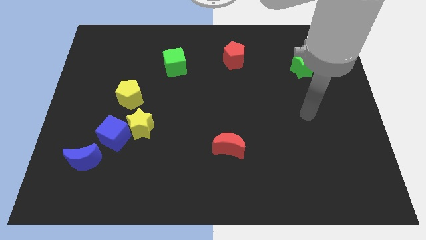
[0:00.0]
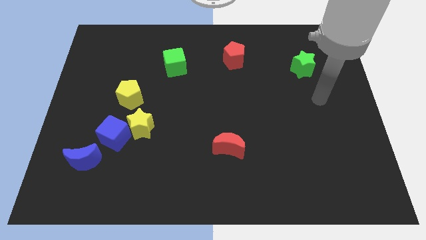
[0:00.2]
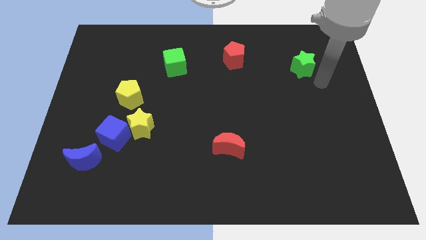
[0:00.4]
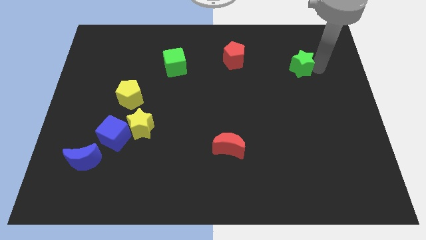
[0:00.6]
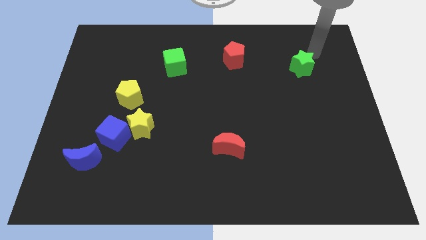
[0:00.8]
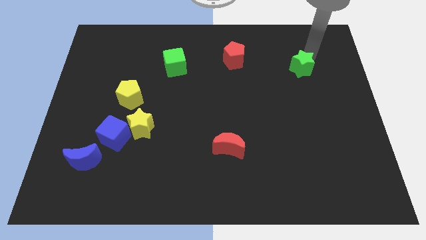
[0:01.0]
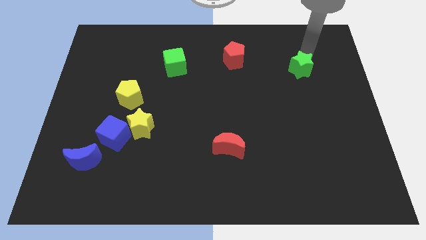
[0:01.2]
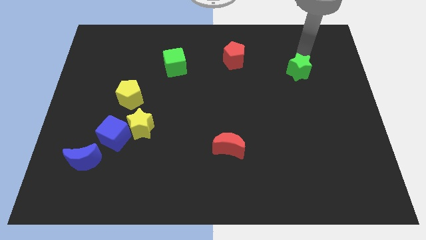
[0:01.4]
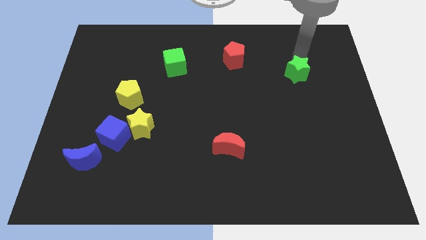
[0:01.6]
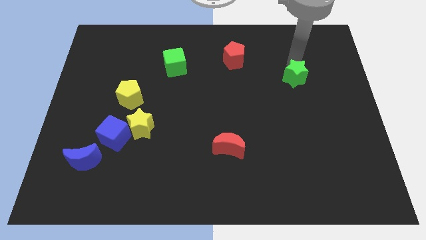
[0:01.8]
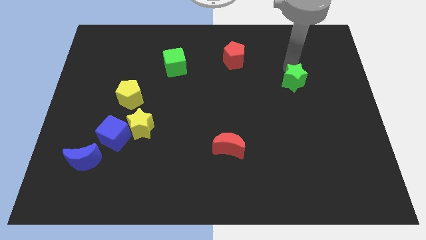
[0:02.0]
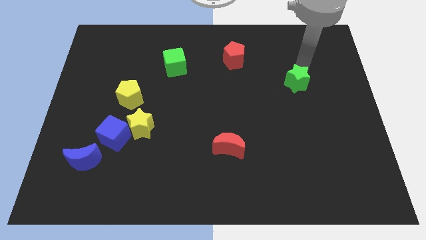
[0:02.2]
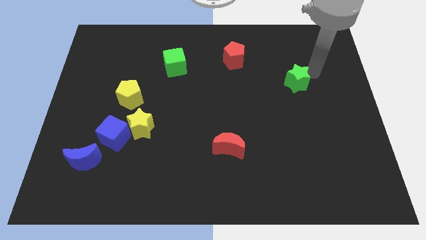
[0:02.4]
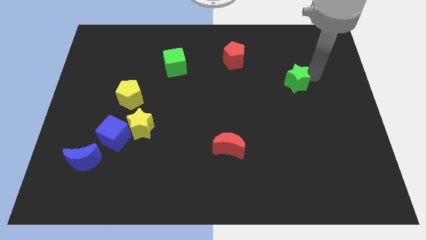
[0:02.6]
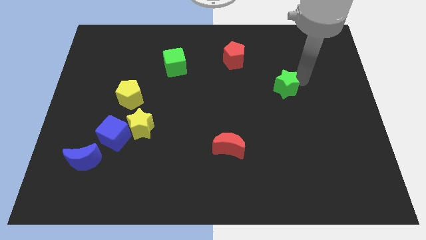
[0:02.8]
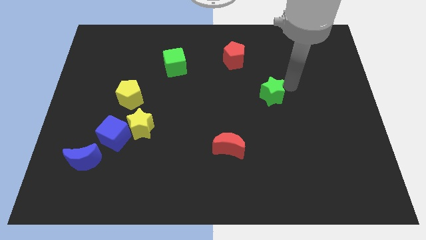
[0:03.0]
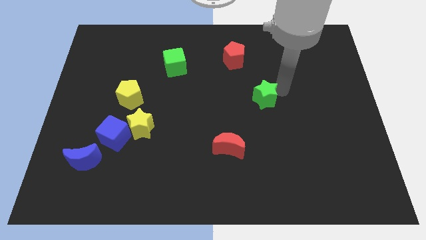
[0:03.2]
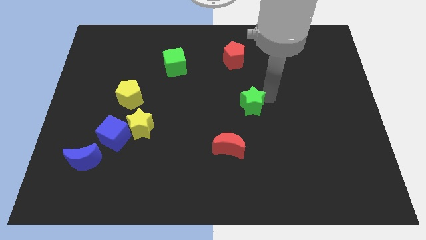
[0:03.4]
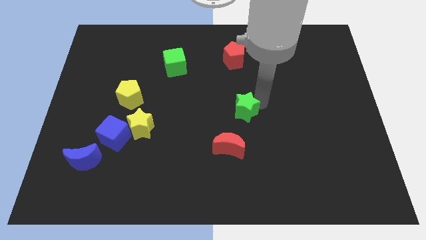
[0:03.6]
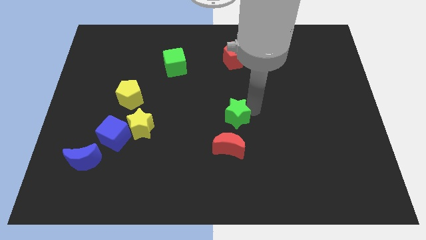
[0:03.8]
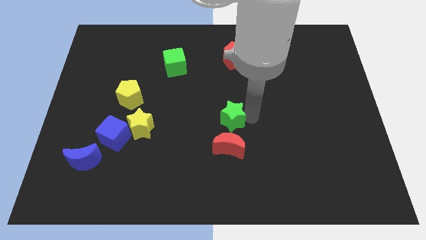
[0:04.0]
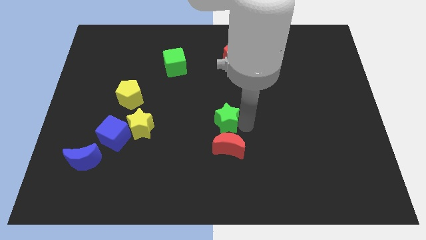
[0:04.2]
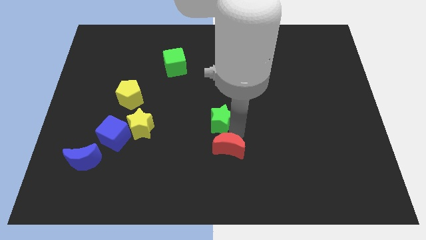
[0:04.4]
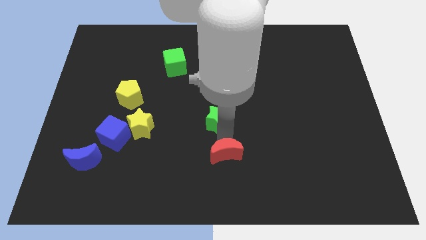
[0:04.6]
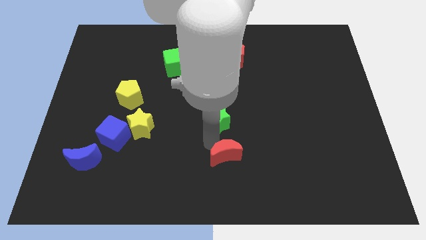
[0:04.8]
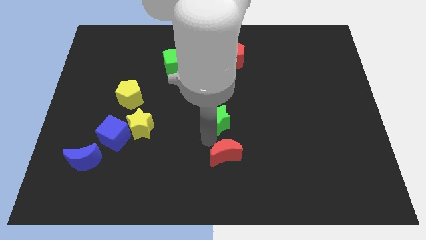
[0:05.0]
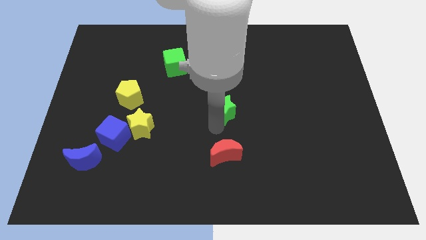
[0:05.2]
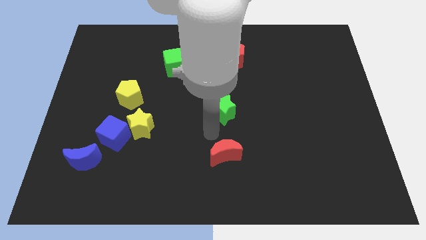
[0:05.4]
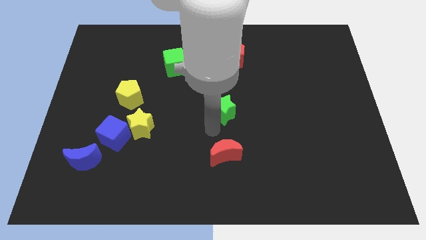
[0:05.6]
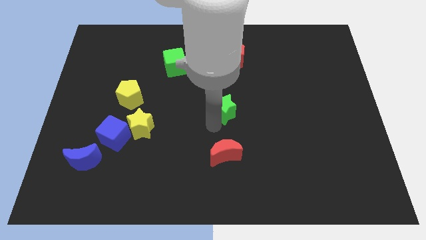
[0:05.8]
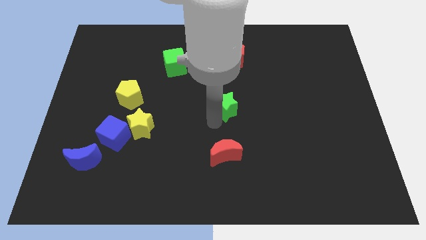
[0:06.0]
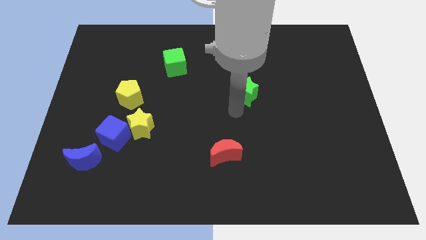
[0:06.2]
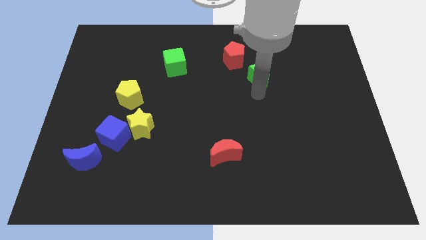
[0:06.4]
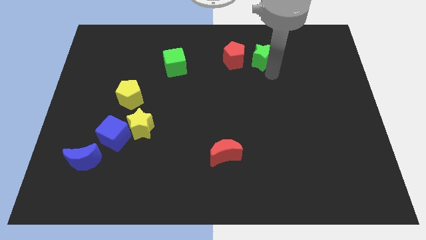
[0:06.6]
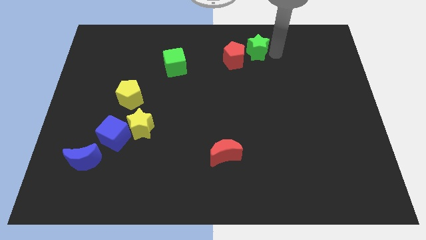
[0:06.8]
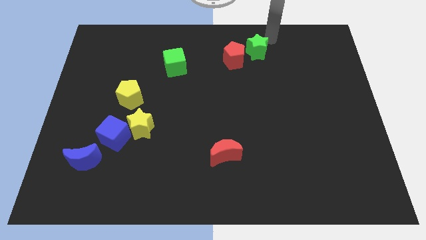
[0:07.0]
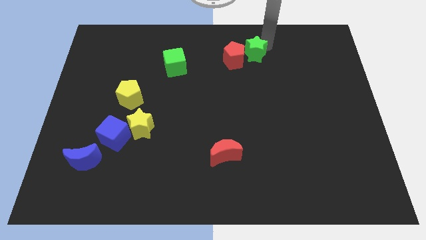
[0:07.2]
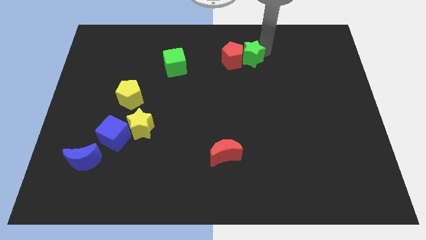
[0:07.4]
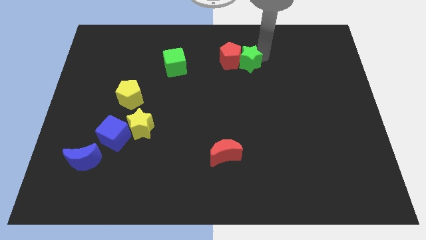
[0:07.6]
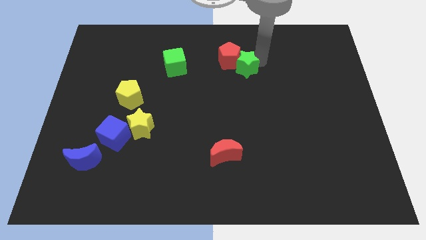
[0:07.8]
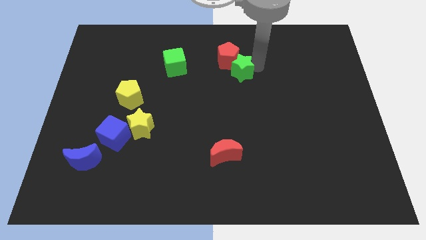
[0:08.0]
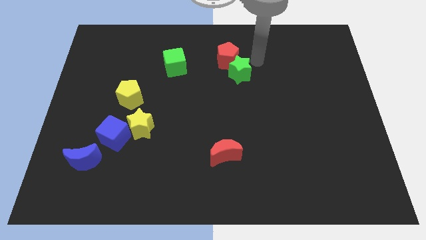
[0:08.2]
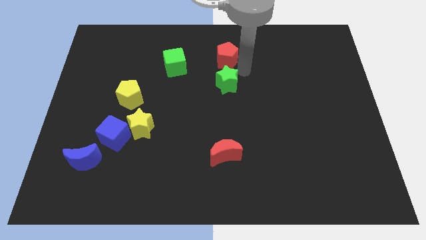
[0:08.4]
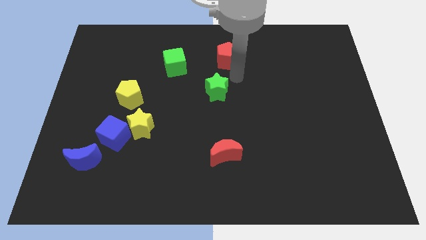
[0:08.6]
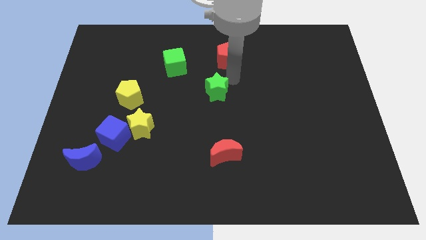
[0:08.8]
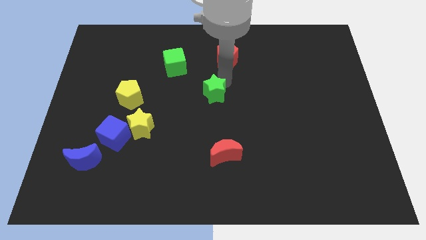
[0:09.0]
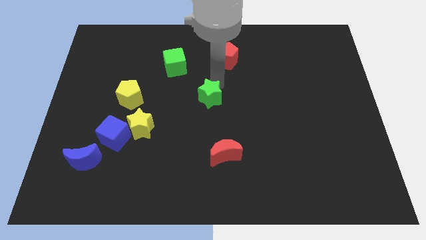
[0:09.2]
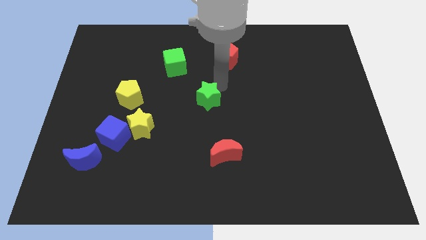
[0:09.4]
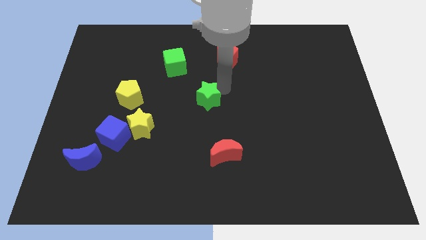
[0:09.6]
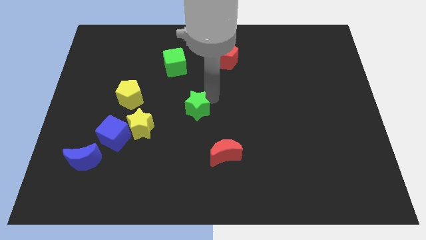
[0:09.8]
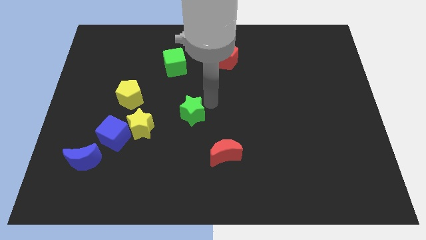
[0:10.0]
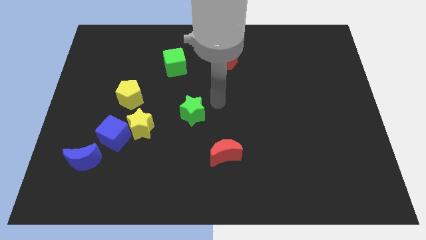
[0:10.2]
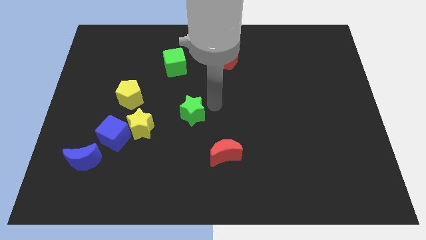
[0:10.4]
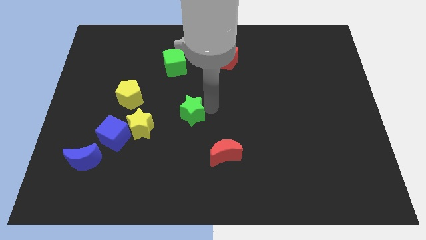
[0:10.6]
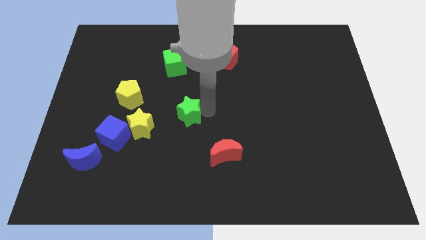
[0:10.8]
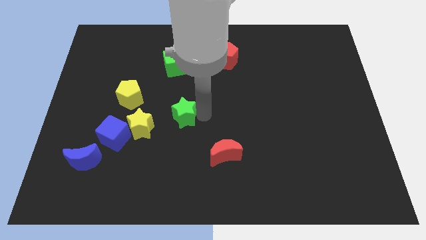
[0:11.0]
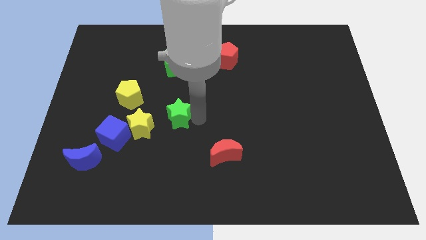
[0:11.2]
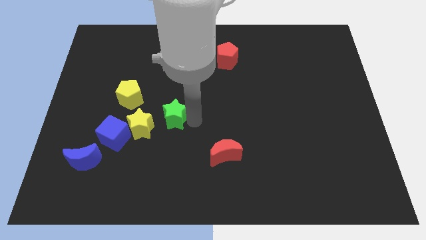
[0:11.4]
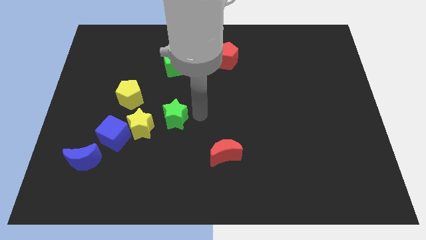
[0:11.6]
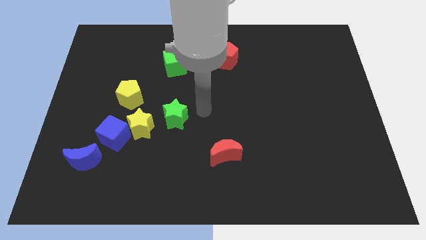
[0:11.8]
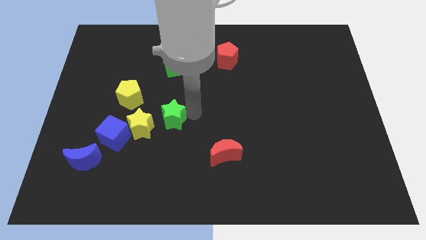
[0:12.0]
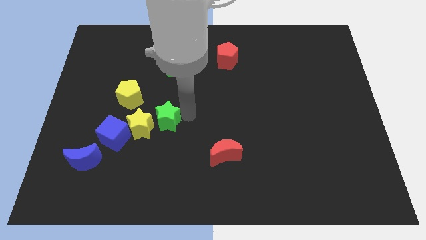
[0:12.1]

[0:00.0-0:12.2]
push the green star next to the yellow star

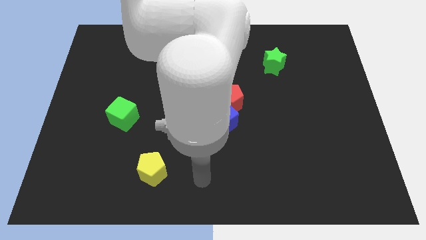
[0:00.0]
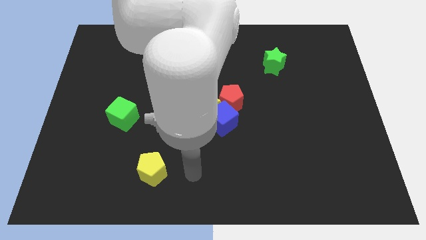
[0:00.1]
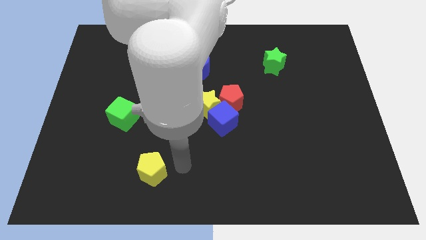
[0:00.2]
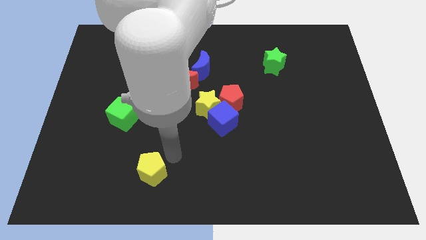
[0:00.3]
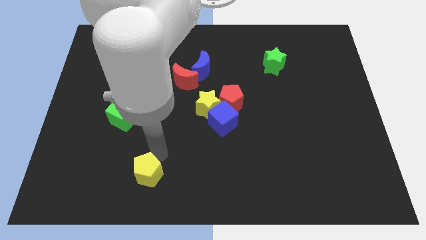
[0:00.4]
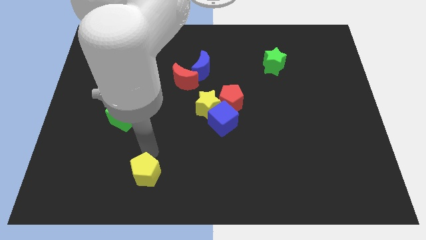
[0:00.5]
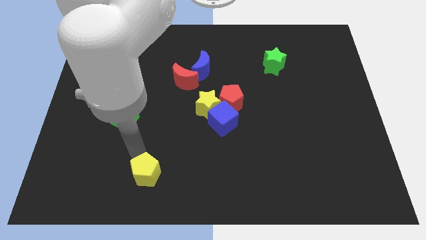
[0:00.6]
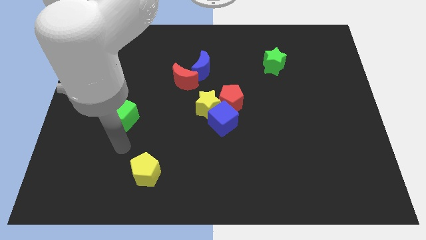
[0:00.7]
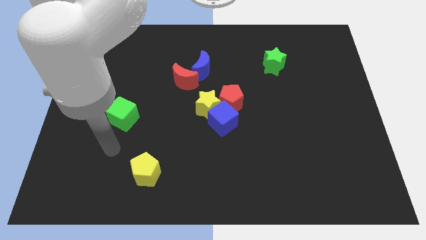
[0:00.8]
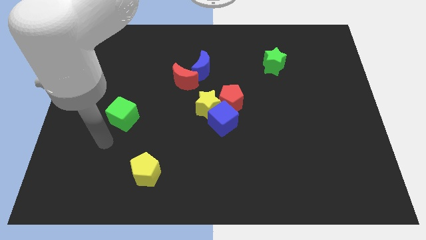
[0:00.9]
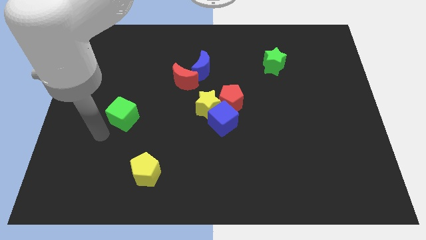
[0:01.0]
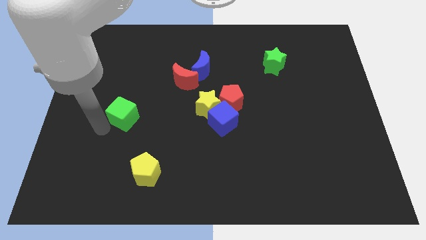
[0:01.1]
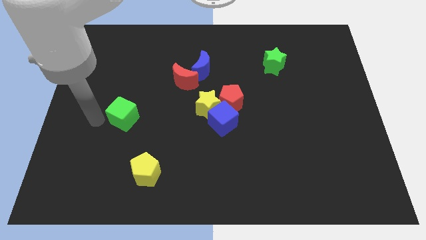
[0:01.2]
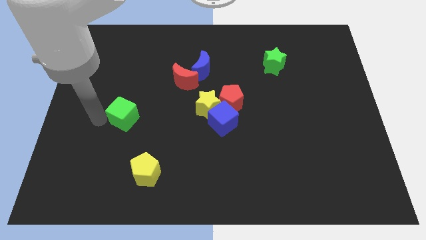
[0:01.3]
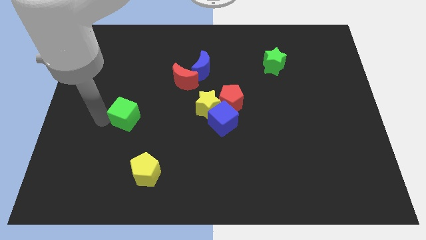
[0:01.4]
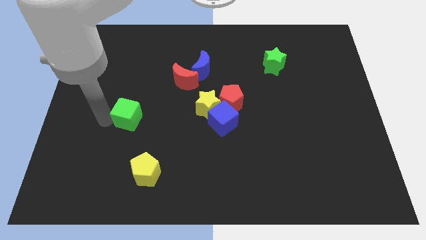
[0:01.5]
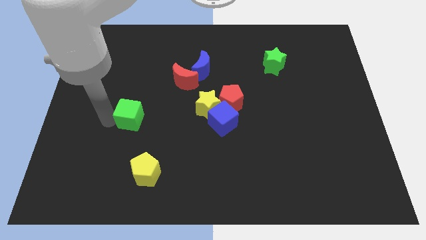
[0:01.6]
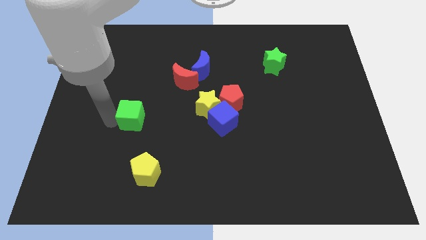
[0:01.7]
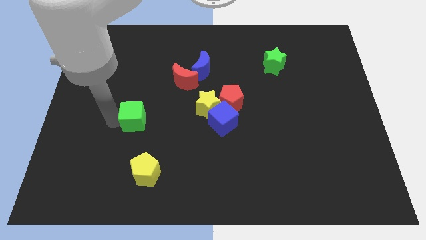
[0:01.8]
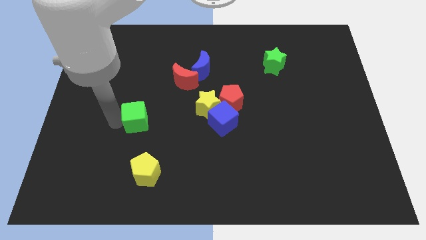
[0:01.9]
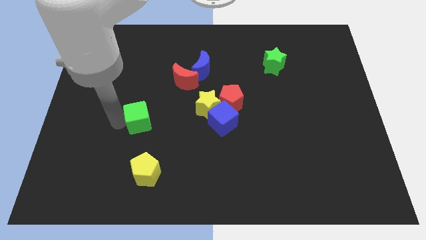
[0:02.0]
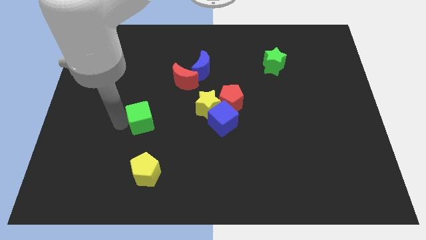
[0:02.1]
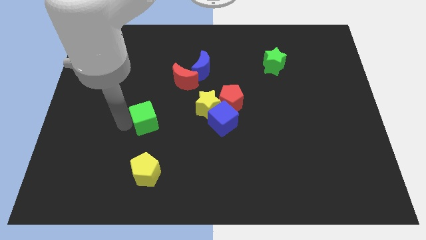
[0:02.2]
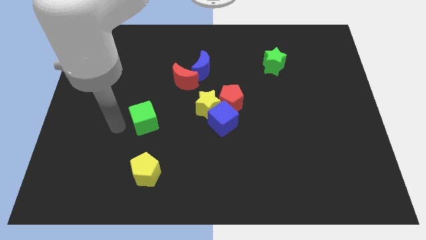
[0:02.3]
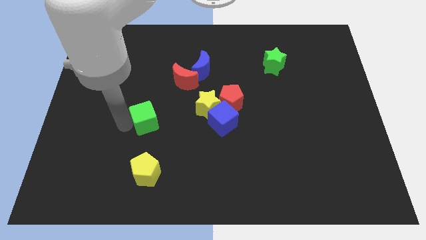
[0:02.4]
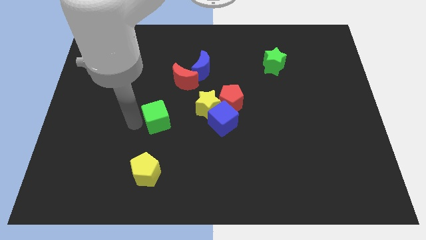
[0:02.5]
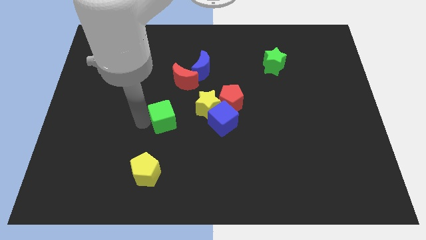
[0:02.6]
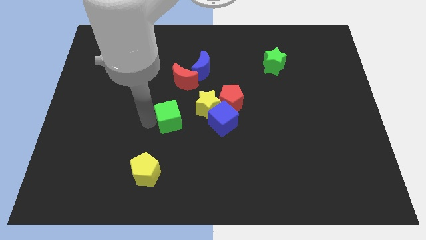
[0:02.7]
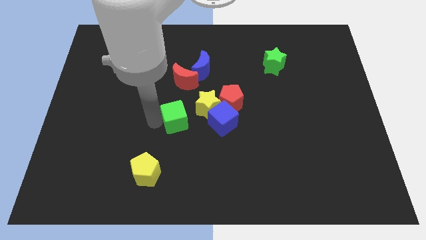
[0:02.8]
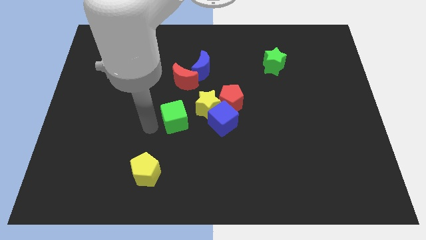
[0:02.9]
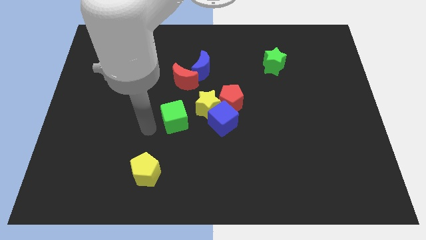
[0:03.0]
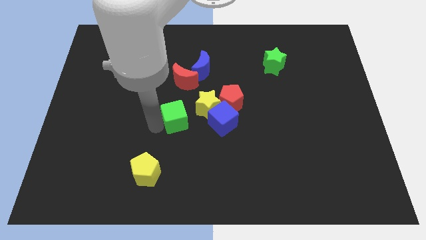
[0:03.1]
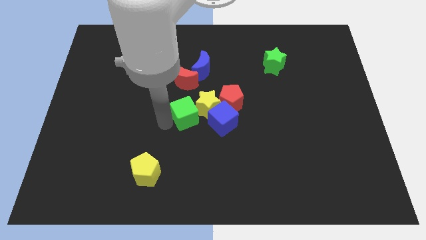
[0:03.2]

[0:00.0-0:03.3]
push the green cube next to the yellow star
